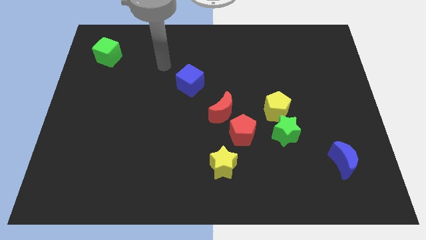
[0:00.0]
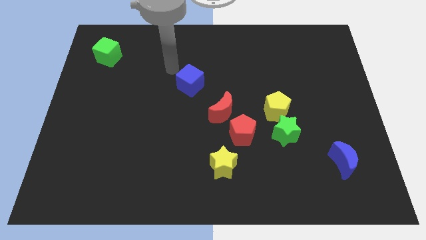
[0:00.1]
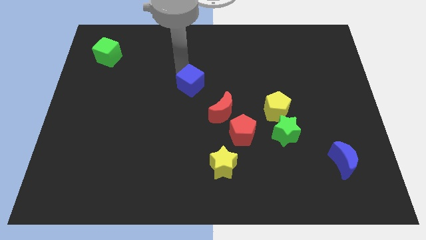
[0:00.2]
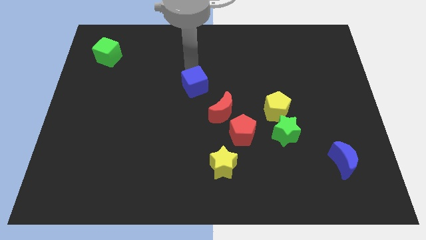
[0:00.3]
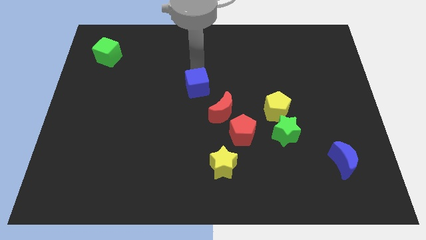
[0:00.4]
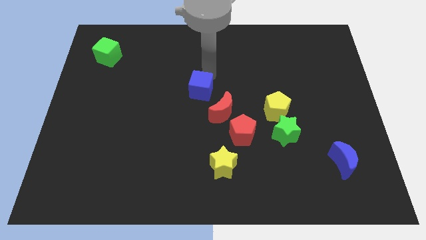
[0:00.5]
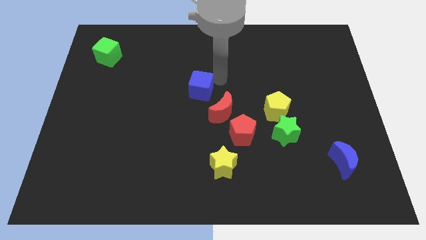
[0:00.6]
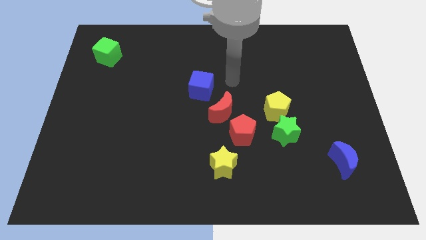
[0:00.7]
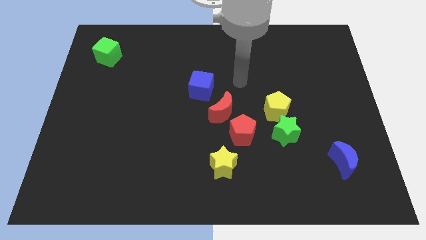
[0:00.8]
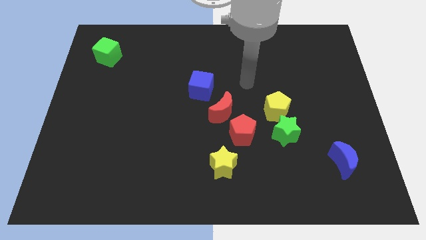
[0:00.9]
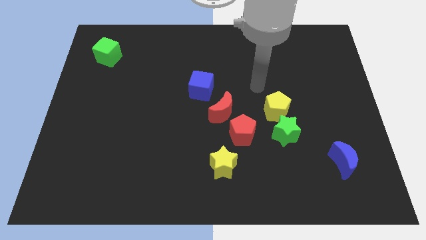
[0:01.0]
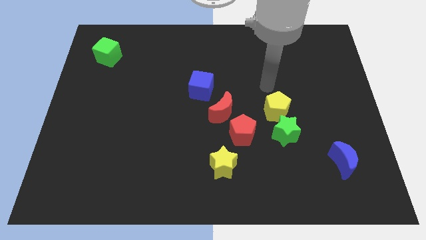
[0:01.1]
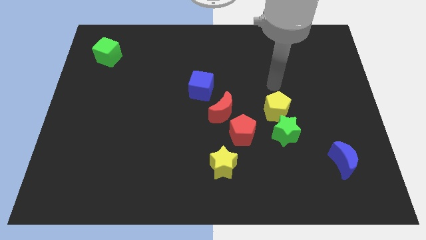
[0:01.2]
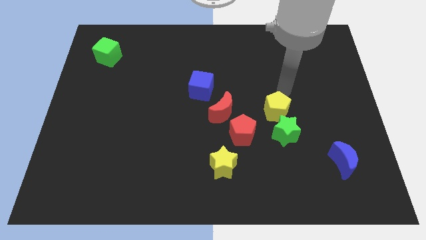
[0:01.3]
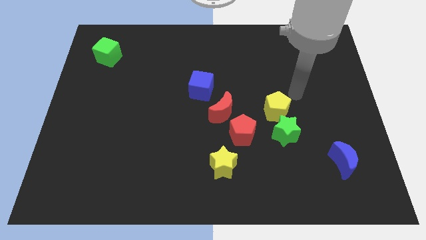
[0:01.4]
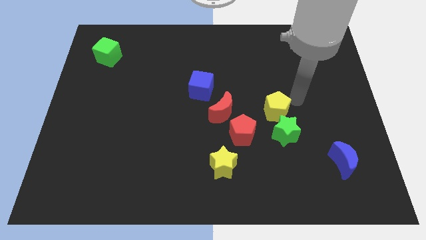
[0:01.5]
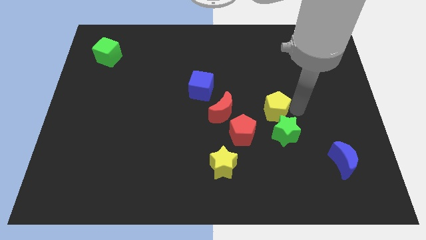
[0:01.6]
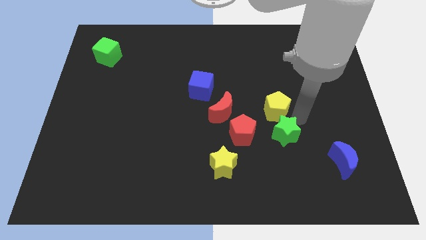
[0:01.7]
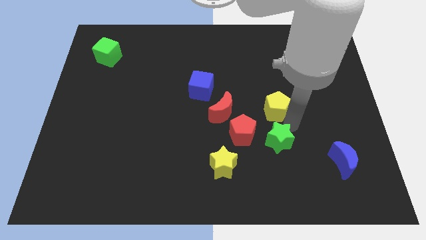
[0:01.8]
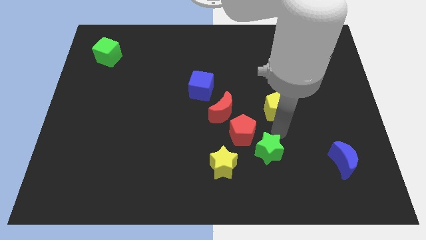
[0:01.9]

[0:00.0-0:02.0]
pull the yellow pentagon apart from the green star

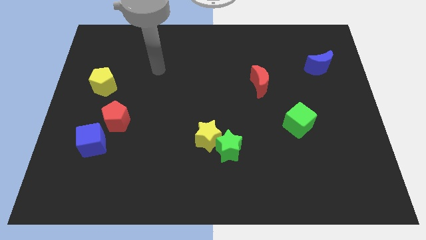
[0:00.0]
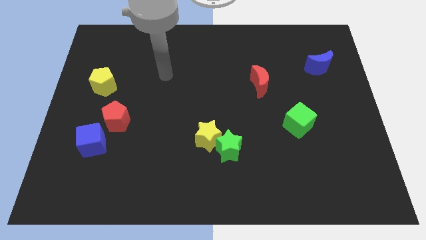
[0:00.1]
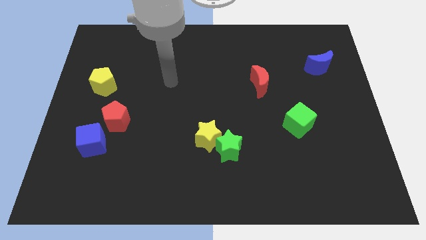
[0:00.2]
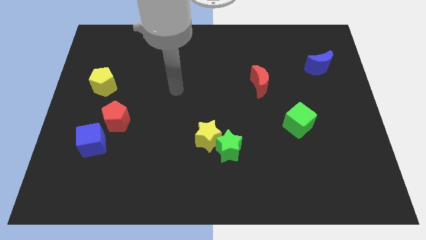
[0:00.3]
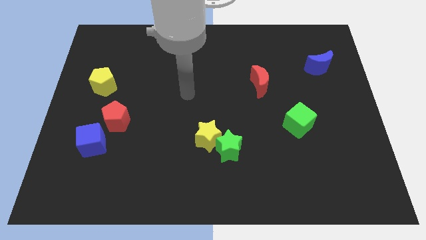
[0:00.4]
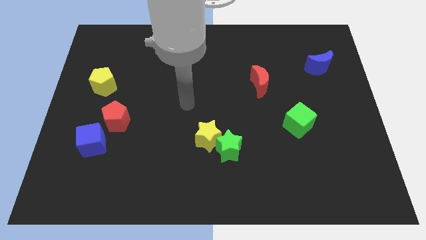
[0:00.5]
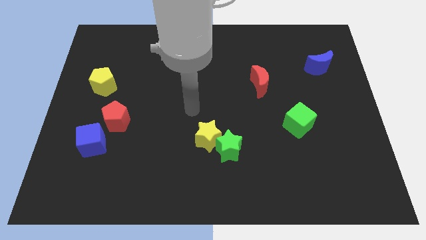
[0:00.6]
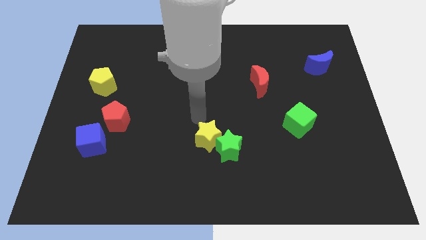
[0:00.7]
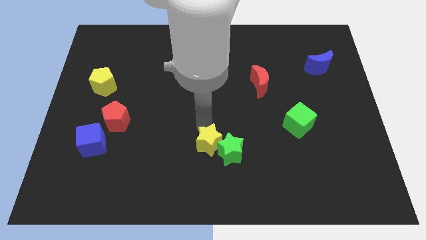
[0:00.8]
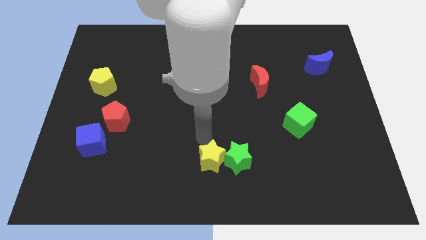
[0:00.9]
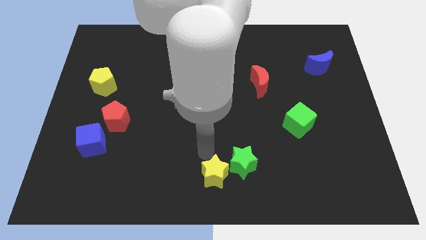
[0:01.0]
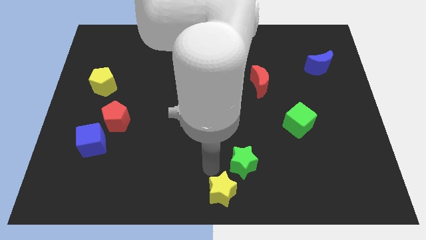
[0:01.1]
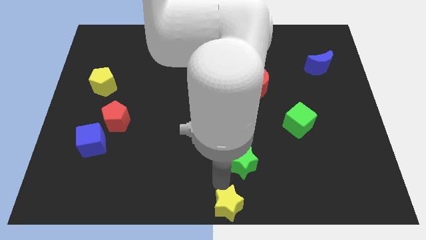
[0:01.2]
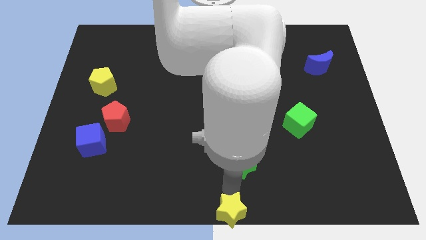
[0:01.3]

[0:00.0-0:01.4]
move the green star away from the yellow star

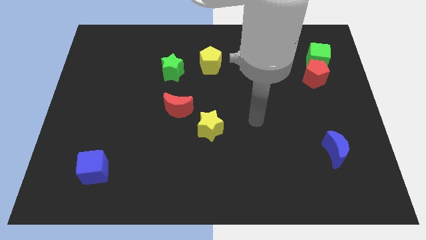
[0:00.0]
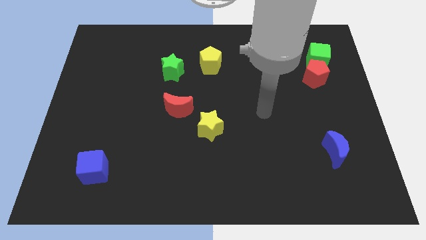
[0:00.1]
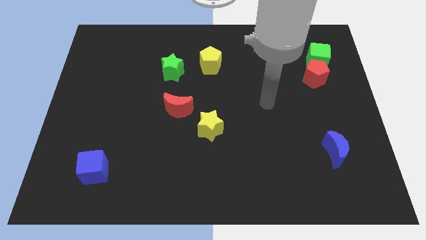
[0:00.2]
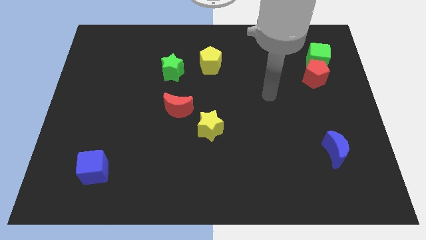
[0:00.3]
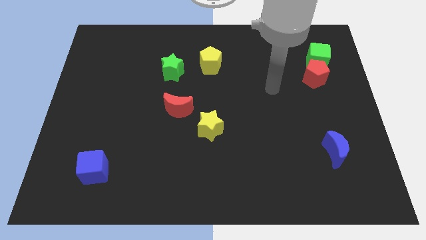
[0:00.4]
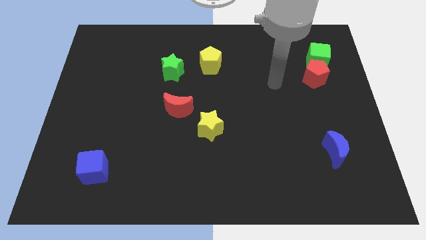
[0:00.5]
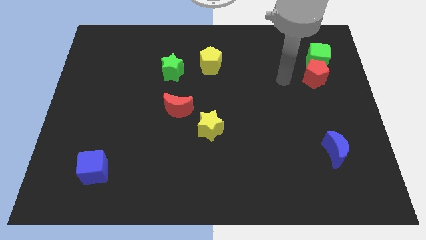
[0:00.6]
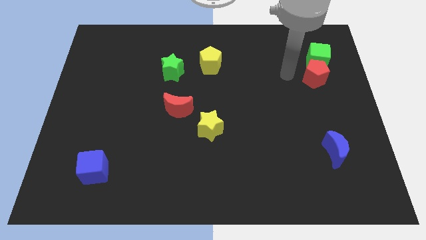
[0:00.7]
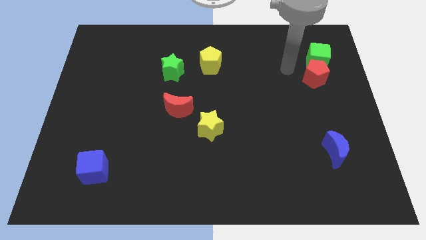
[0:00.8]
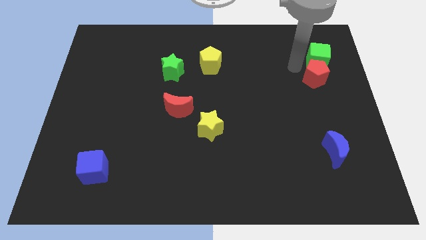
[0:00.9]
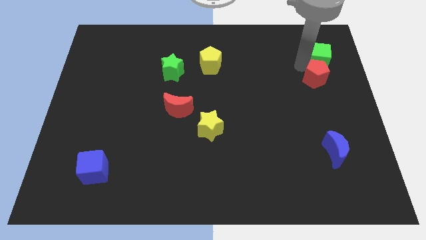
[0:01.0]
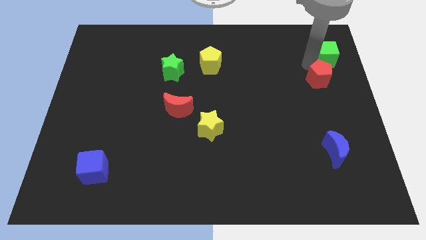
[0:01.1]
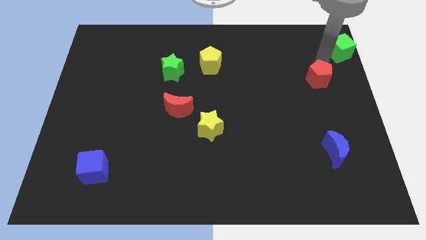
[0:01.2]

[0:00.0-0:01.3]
pull the red pentagon apart from the green cube

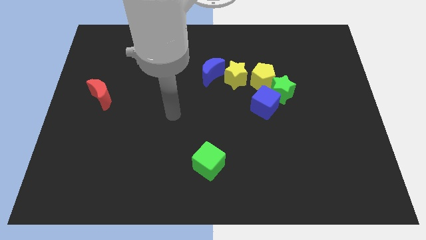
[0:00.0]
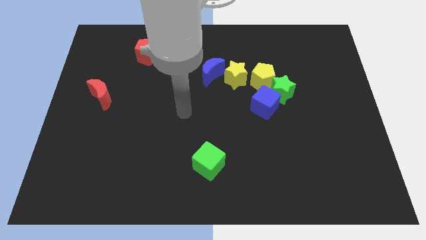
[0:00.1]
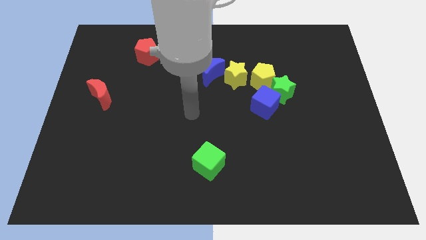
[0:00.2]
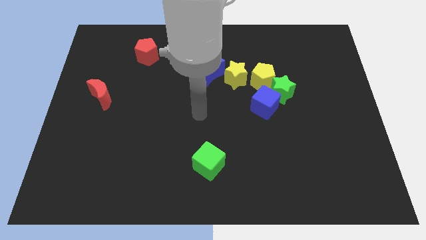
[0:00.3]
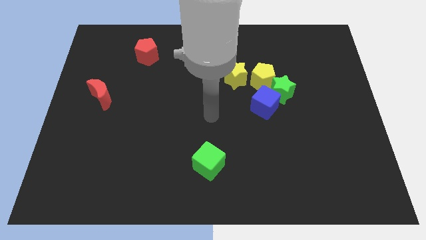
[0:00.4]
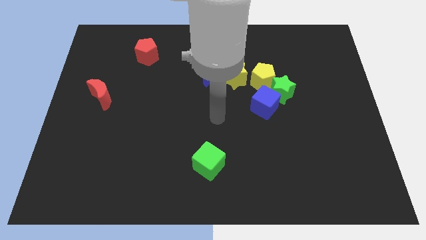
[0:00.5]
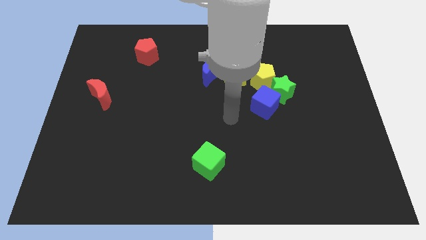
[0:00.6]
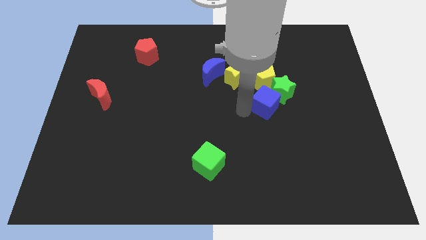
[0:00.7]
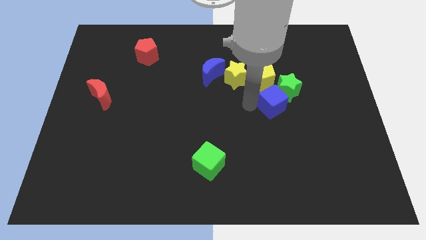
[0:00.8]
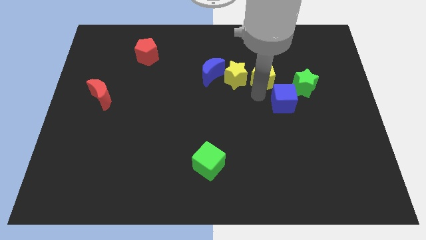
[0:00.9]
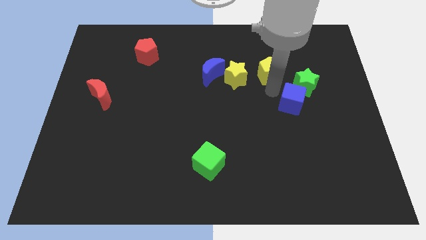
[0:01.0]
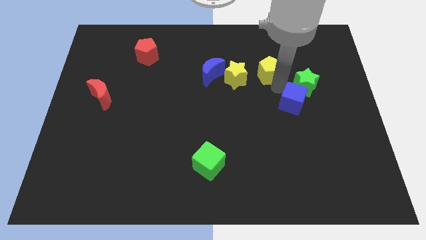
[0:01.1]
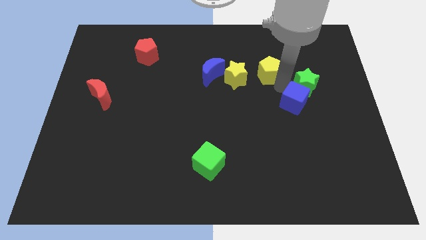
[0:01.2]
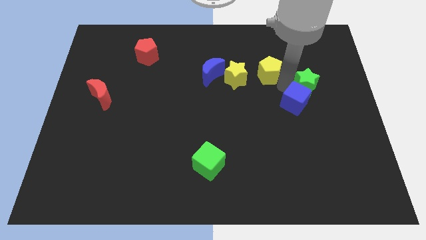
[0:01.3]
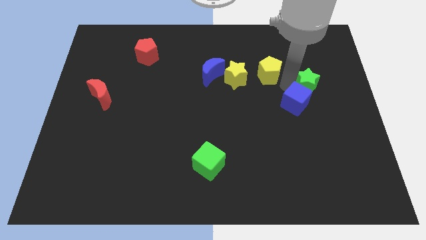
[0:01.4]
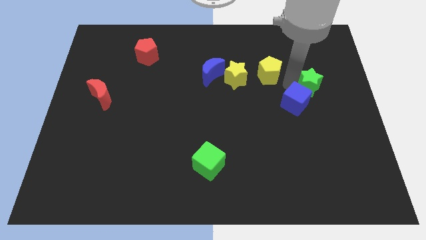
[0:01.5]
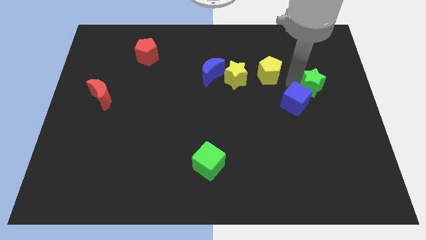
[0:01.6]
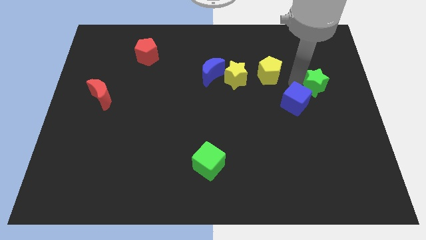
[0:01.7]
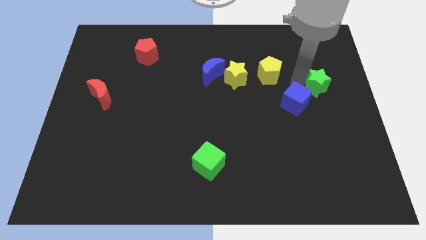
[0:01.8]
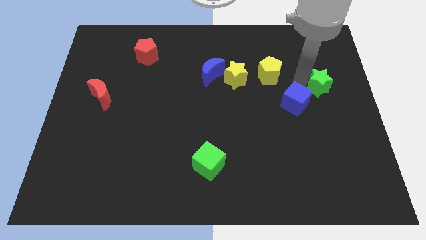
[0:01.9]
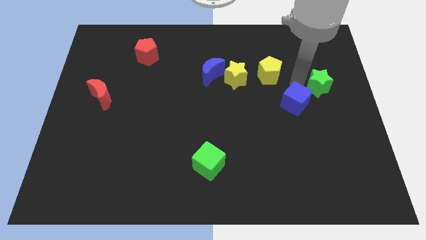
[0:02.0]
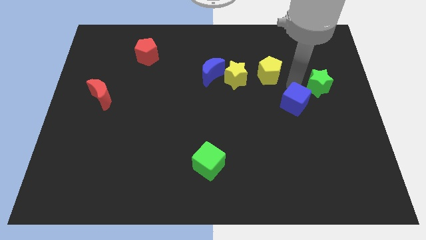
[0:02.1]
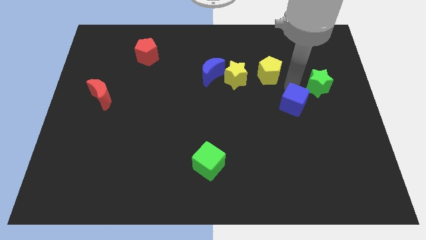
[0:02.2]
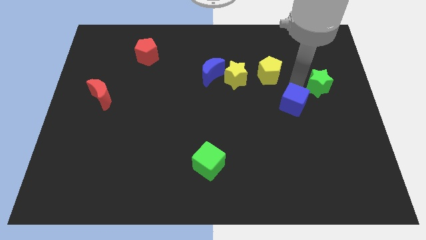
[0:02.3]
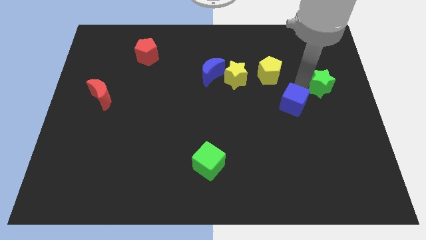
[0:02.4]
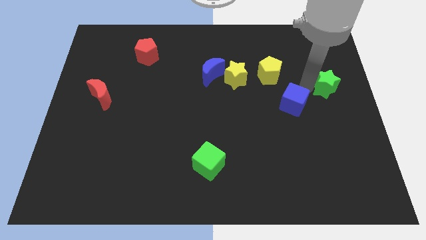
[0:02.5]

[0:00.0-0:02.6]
separate the green star from the blue cube and yellow pentagon

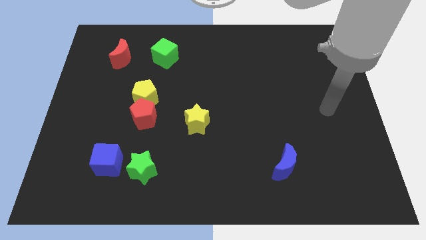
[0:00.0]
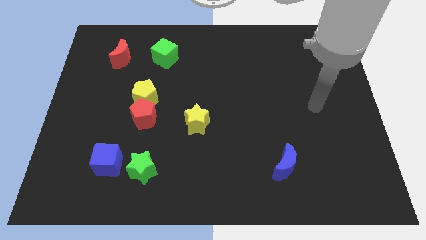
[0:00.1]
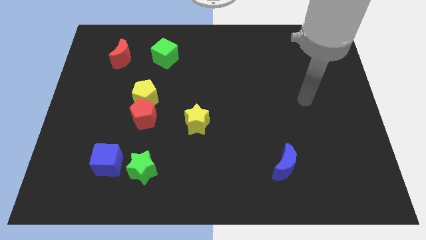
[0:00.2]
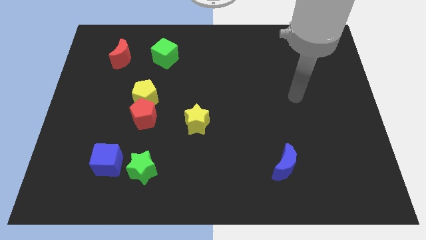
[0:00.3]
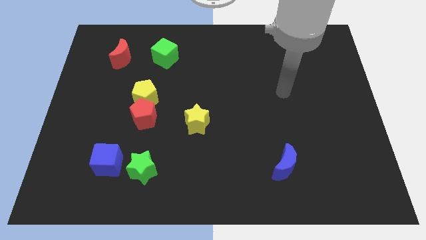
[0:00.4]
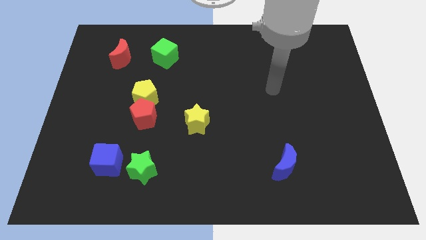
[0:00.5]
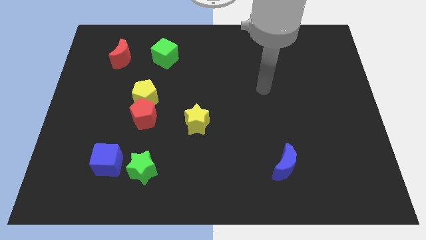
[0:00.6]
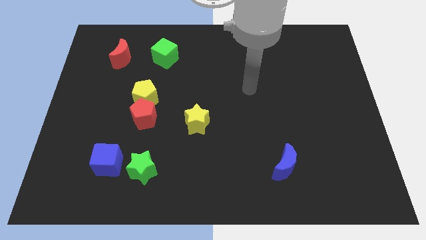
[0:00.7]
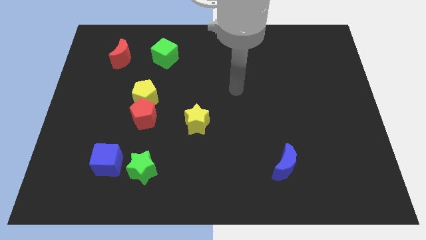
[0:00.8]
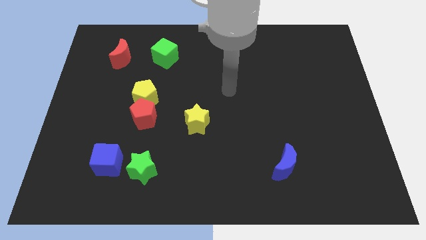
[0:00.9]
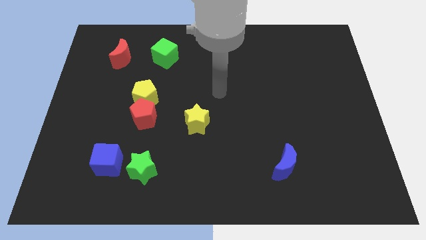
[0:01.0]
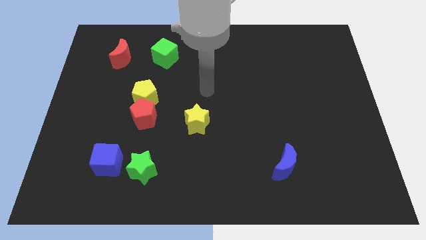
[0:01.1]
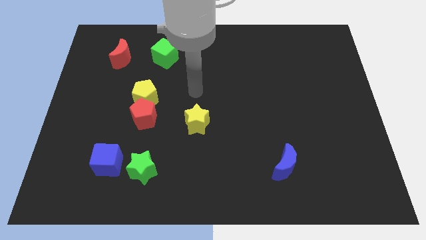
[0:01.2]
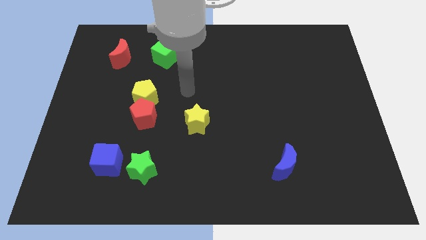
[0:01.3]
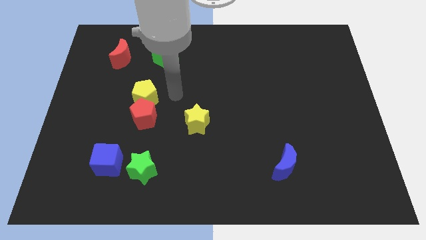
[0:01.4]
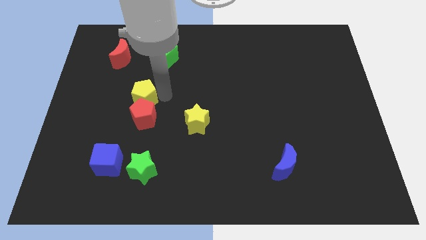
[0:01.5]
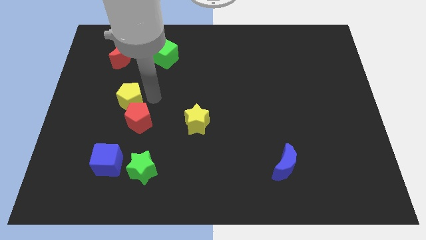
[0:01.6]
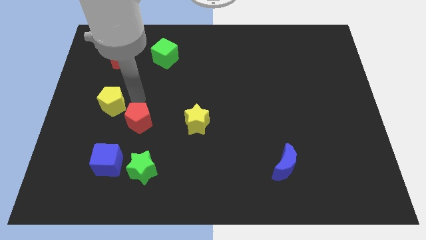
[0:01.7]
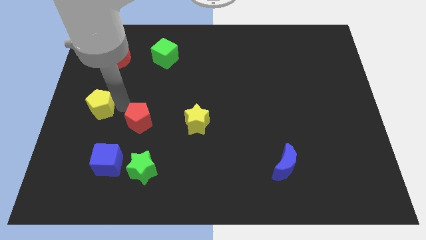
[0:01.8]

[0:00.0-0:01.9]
separate the red pentagon from the yellow pentagon

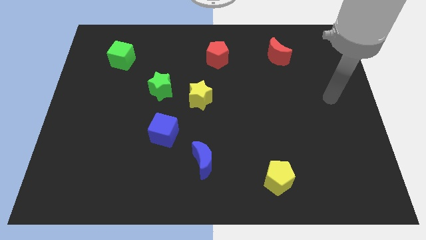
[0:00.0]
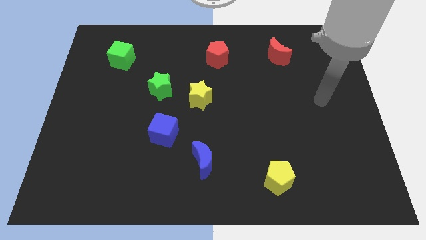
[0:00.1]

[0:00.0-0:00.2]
pull the green star apart from the yellow star
